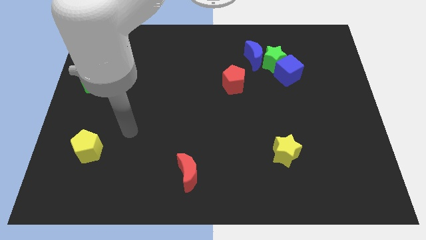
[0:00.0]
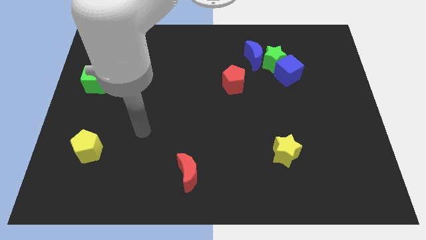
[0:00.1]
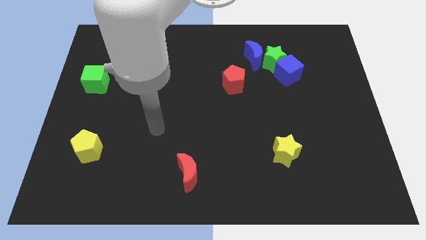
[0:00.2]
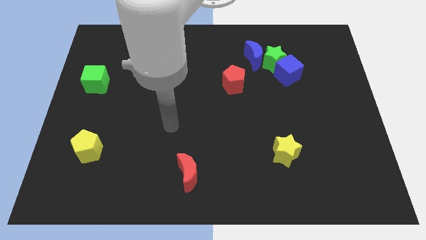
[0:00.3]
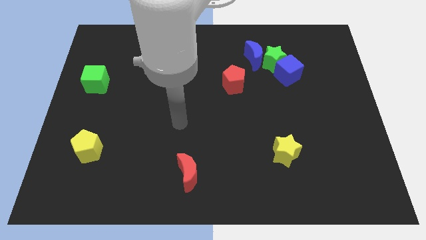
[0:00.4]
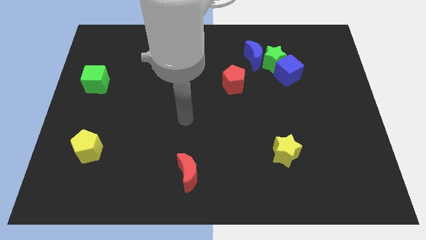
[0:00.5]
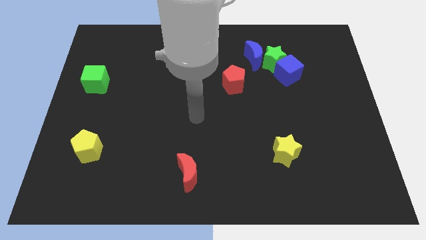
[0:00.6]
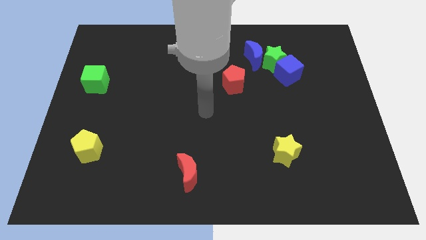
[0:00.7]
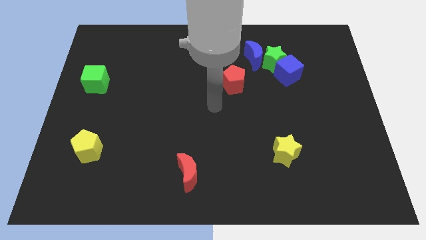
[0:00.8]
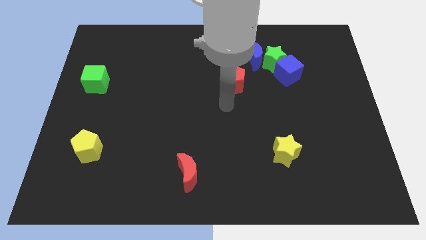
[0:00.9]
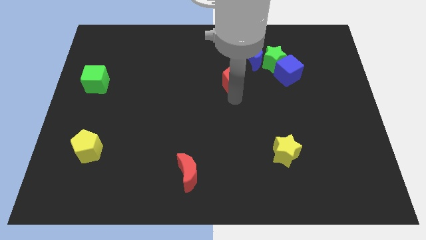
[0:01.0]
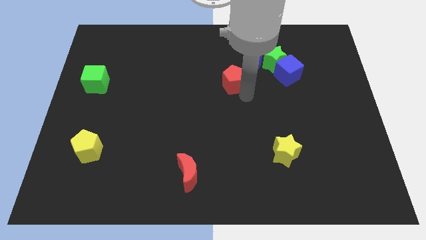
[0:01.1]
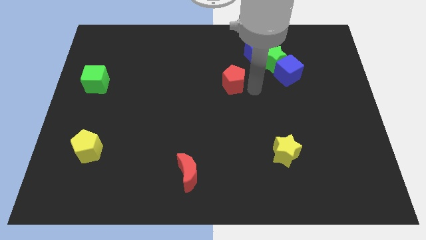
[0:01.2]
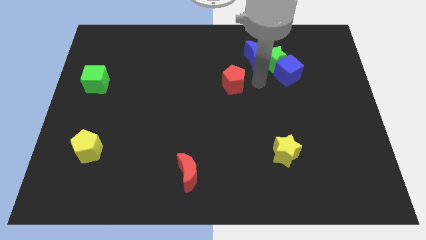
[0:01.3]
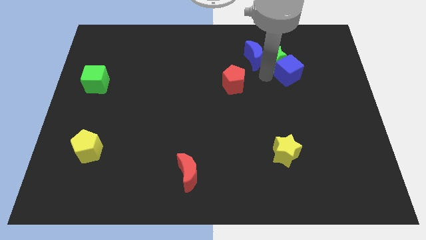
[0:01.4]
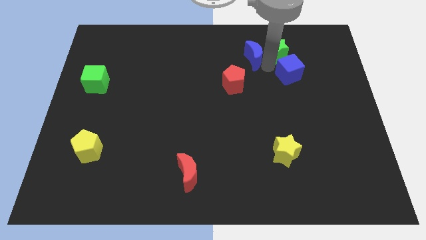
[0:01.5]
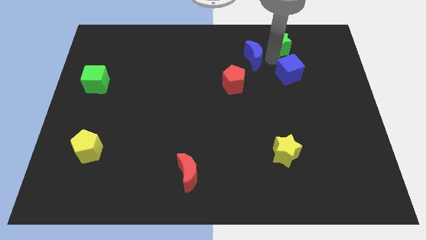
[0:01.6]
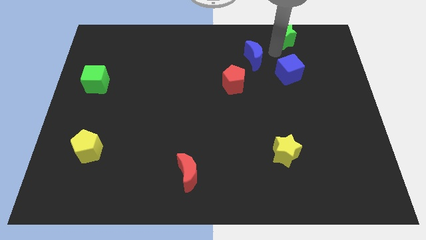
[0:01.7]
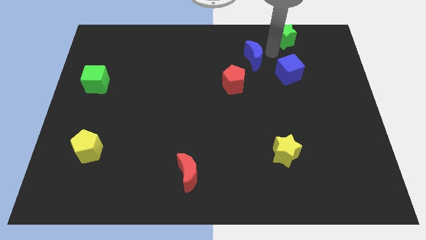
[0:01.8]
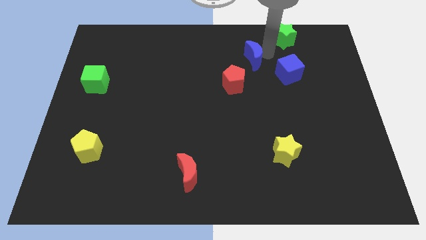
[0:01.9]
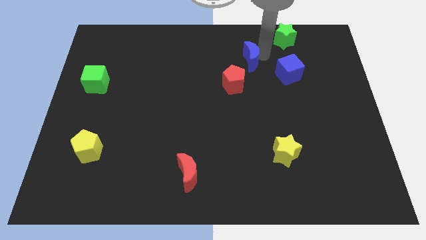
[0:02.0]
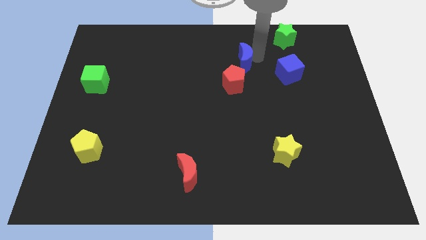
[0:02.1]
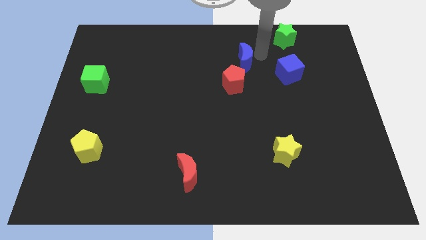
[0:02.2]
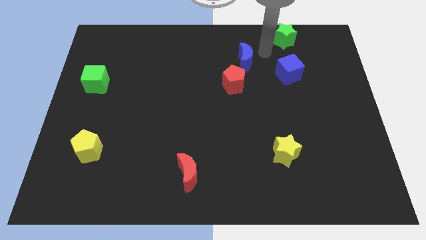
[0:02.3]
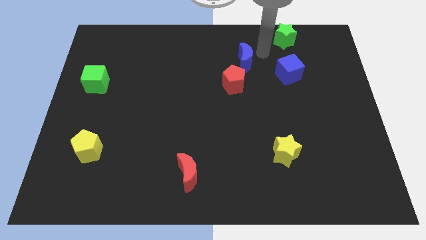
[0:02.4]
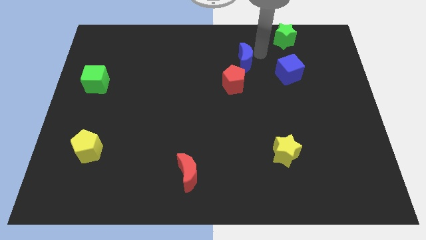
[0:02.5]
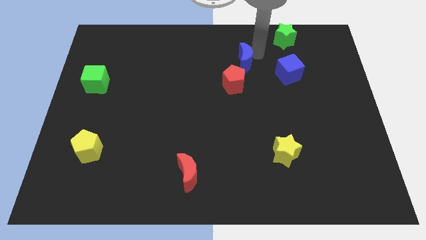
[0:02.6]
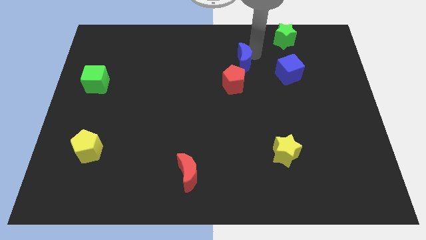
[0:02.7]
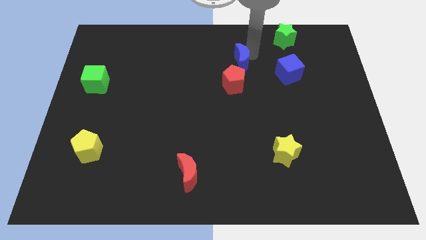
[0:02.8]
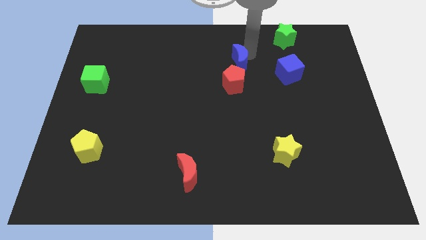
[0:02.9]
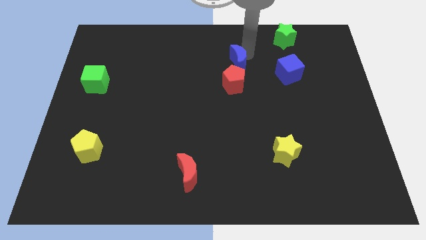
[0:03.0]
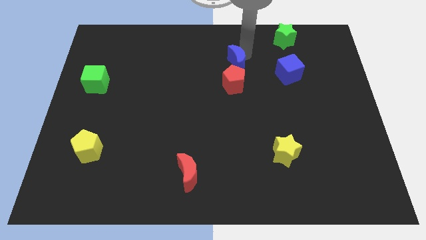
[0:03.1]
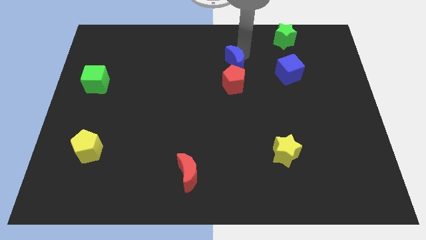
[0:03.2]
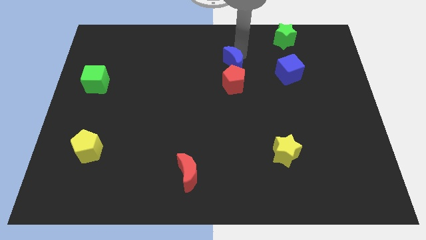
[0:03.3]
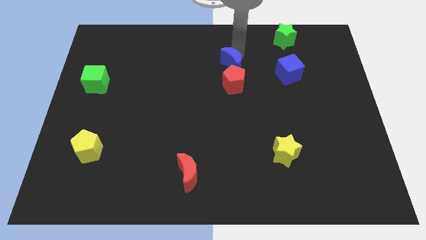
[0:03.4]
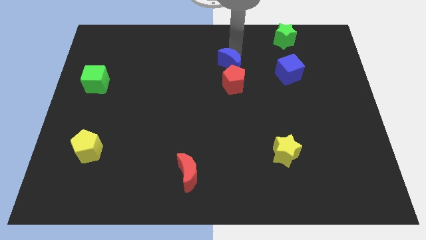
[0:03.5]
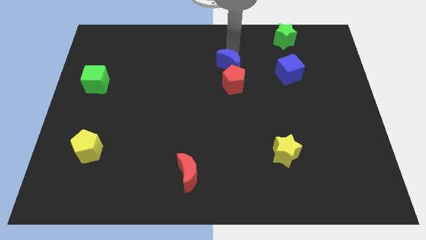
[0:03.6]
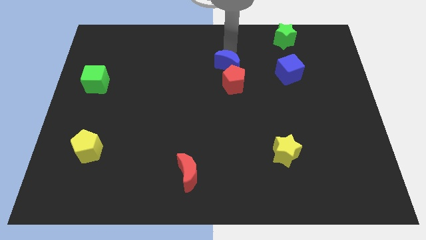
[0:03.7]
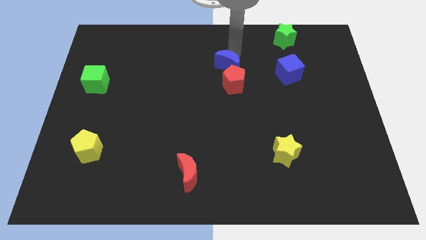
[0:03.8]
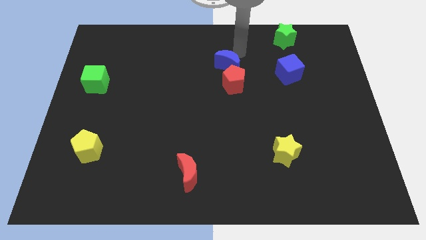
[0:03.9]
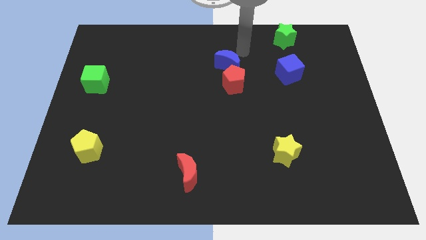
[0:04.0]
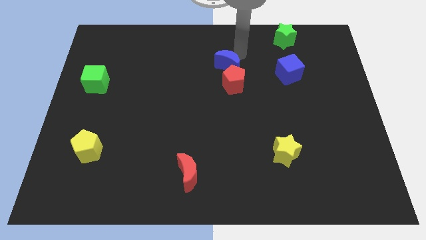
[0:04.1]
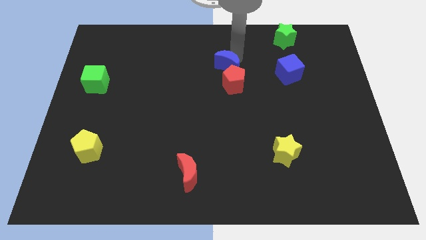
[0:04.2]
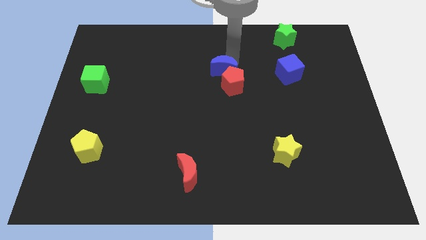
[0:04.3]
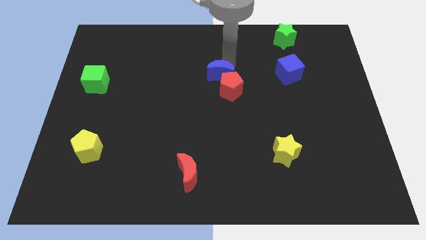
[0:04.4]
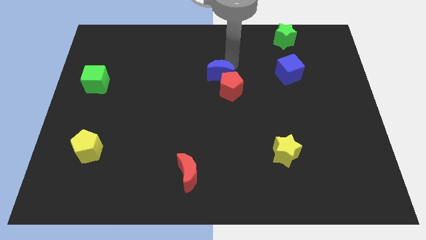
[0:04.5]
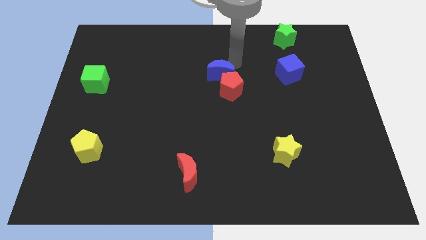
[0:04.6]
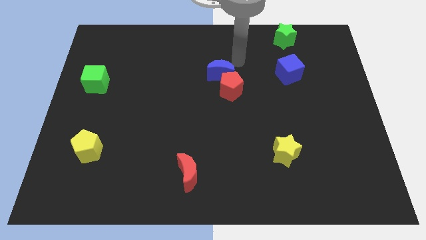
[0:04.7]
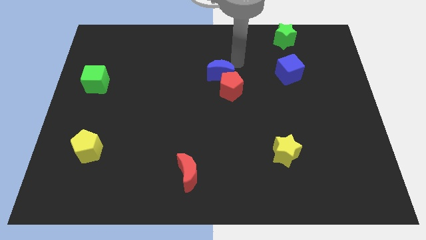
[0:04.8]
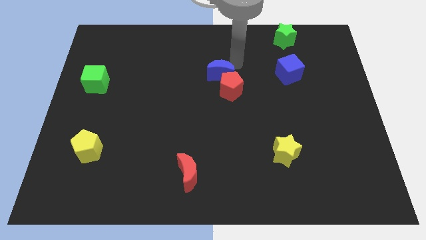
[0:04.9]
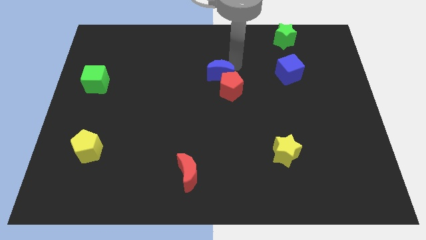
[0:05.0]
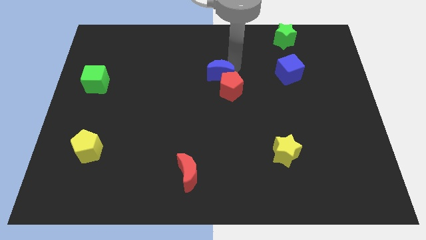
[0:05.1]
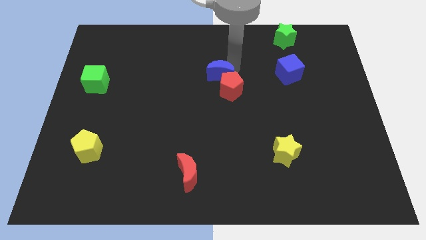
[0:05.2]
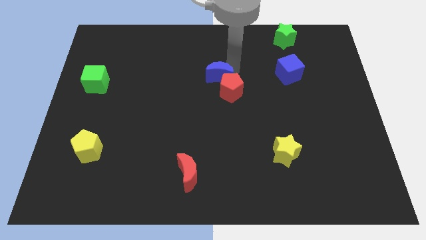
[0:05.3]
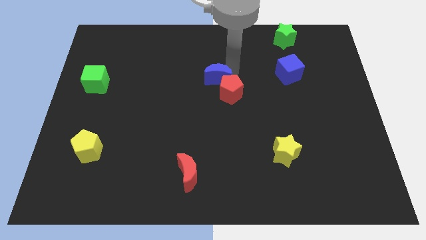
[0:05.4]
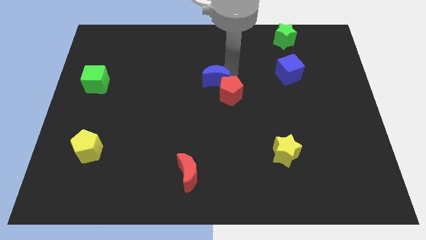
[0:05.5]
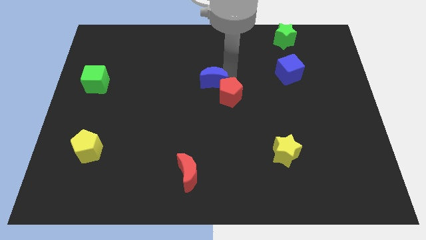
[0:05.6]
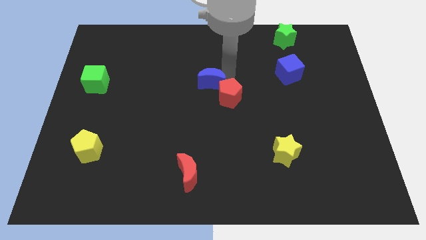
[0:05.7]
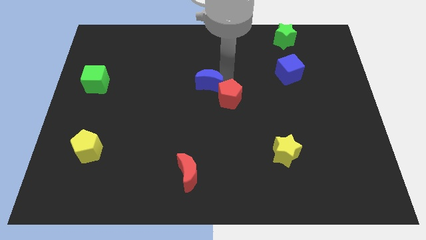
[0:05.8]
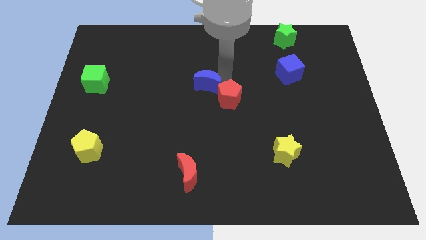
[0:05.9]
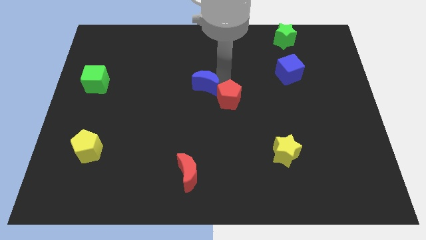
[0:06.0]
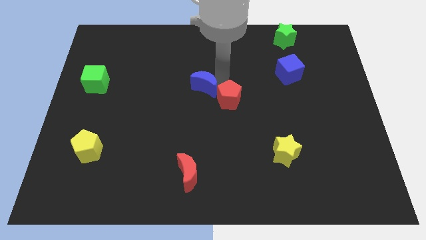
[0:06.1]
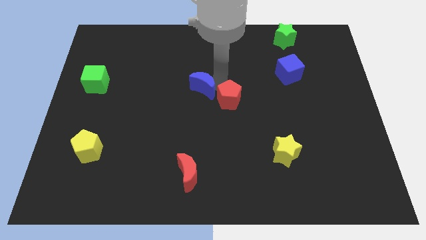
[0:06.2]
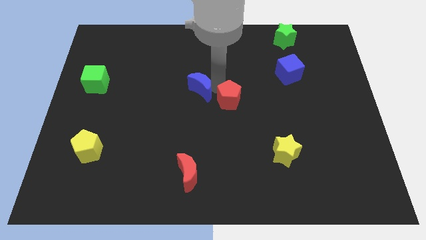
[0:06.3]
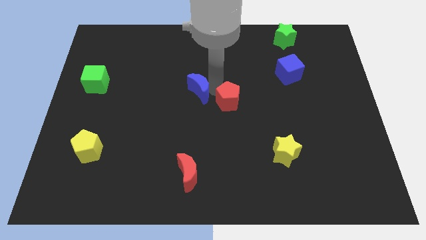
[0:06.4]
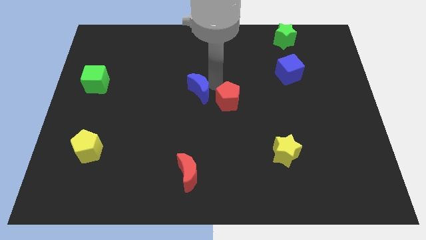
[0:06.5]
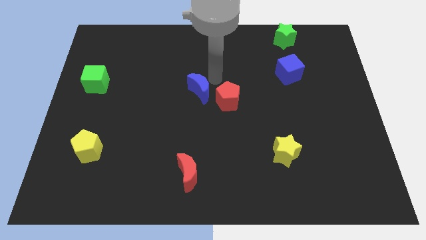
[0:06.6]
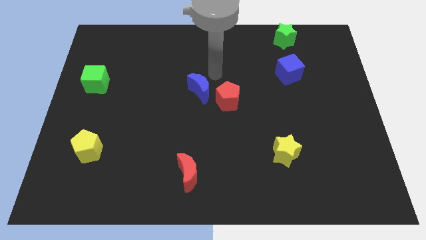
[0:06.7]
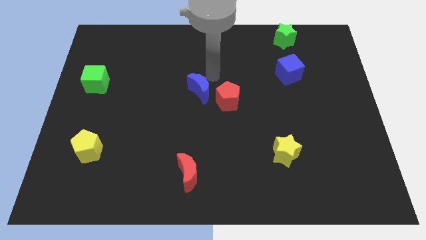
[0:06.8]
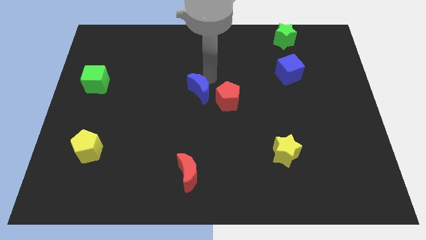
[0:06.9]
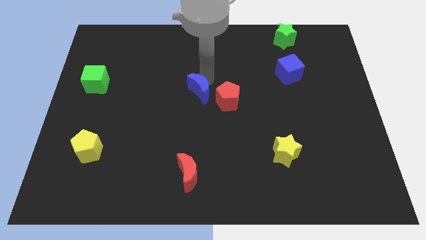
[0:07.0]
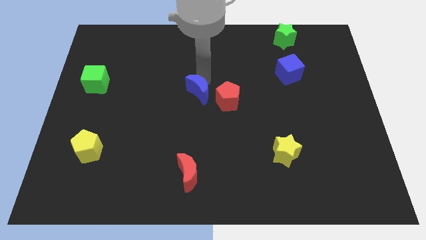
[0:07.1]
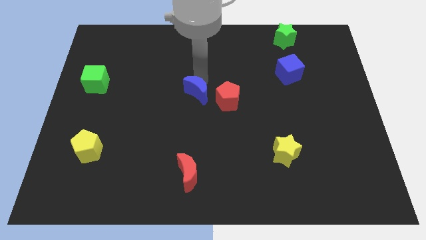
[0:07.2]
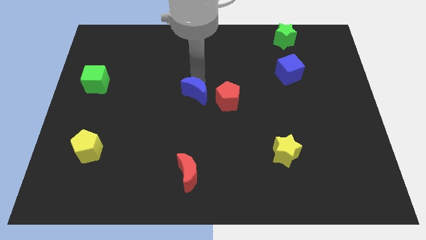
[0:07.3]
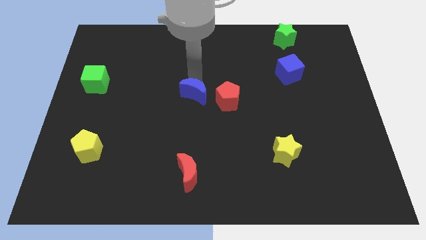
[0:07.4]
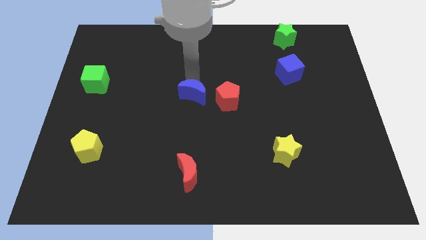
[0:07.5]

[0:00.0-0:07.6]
push the blue moon down and to the left

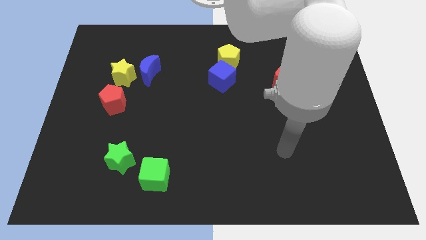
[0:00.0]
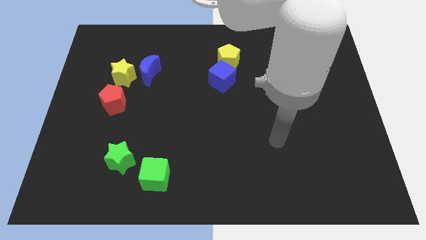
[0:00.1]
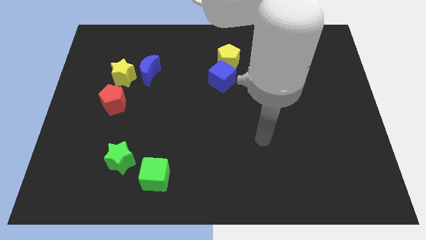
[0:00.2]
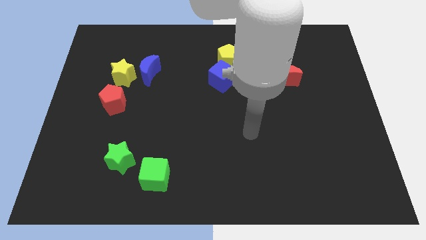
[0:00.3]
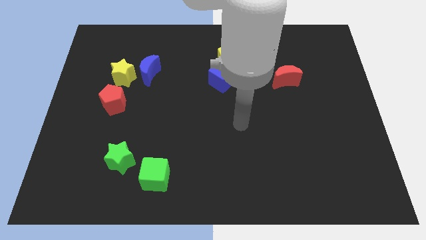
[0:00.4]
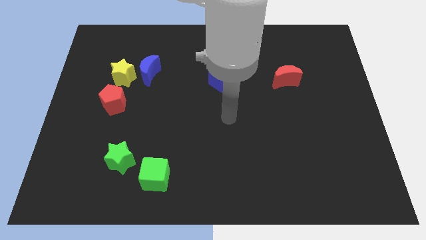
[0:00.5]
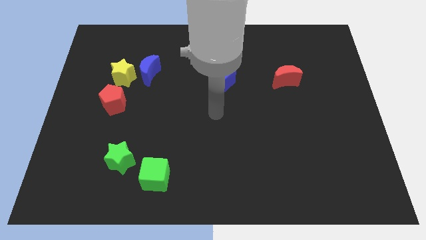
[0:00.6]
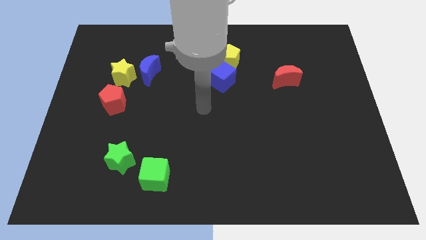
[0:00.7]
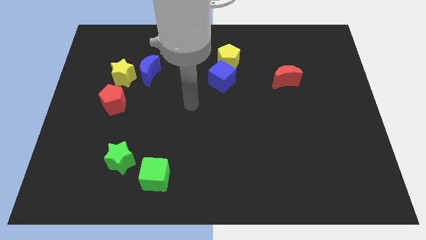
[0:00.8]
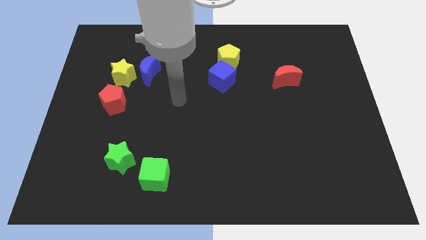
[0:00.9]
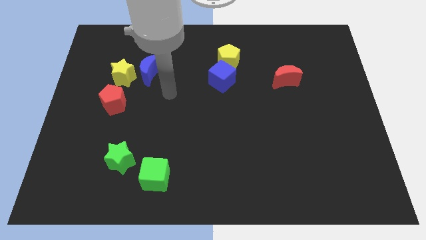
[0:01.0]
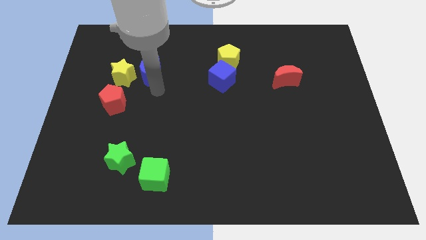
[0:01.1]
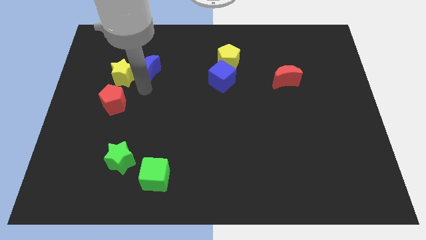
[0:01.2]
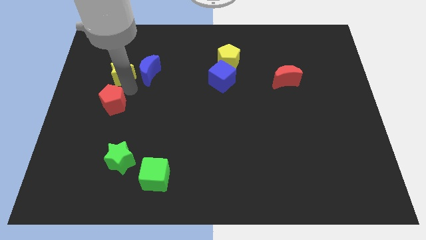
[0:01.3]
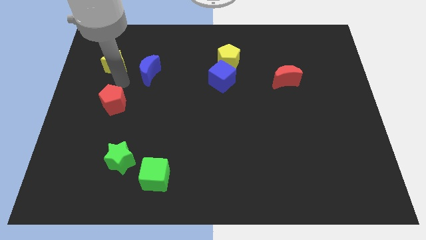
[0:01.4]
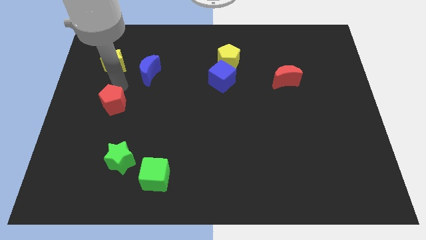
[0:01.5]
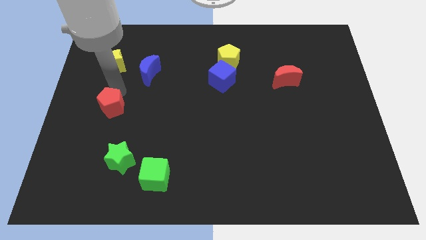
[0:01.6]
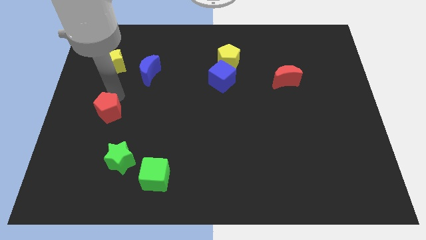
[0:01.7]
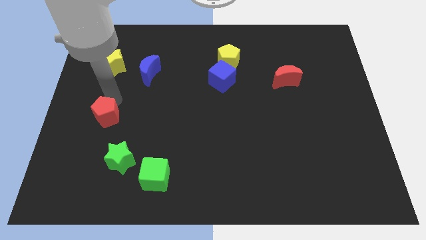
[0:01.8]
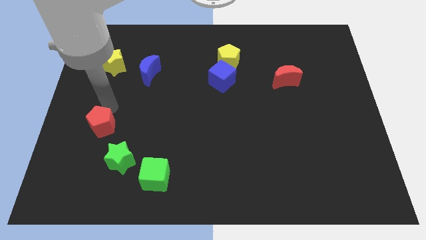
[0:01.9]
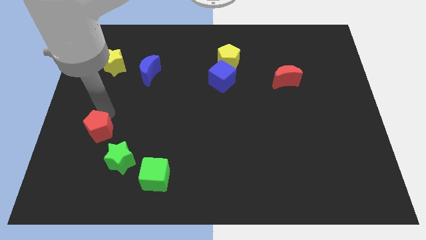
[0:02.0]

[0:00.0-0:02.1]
slightly move the red pentagon down
